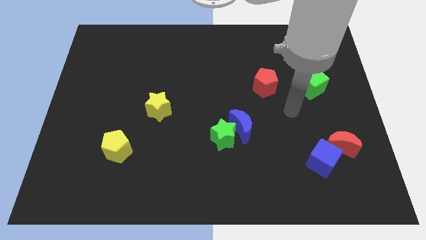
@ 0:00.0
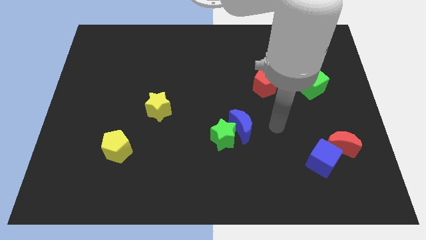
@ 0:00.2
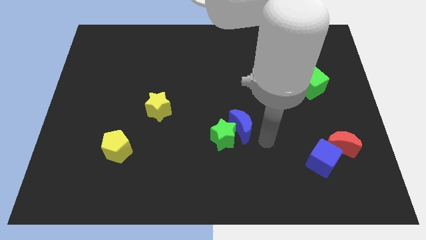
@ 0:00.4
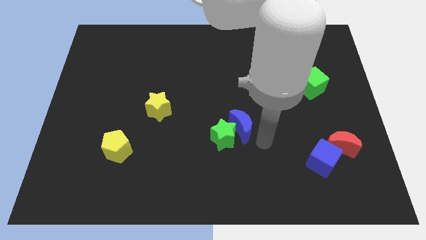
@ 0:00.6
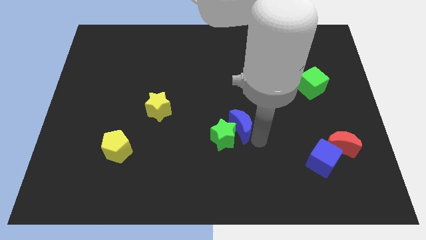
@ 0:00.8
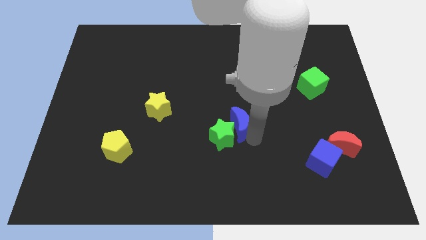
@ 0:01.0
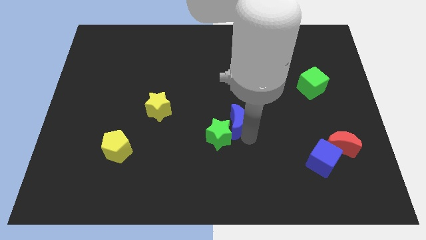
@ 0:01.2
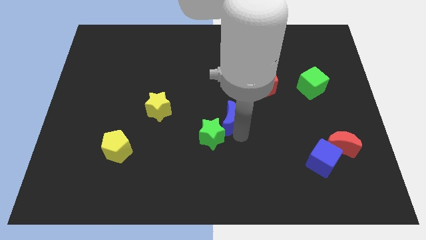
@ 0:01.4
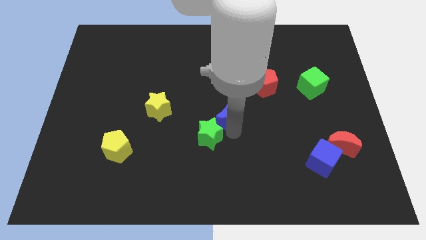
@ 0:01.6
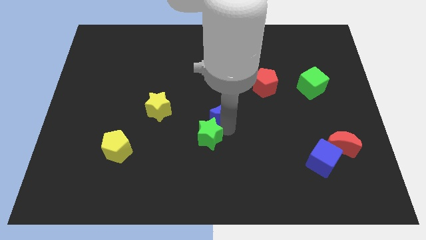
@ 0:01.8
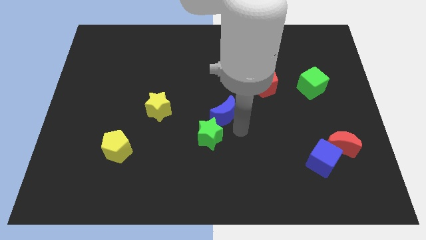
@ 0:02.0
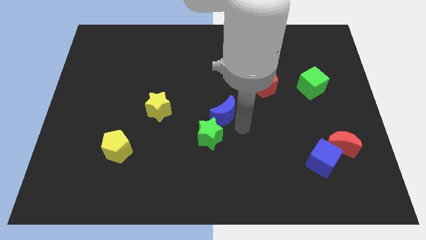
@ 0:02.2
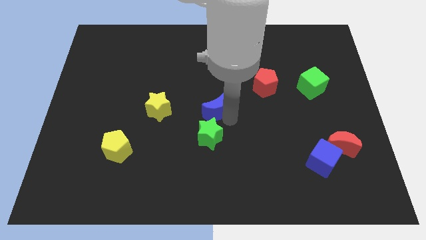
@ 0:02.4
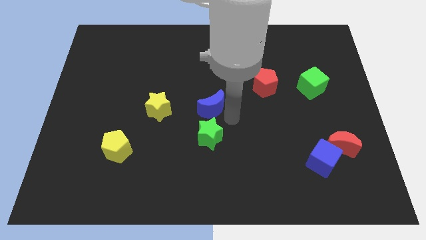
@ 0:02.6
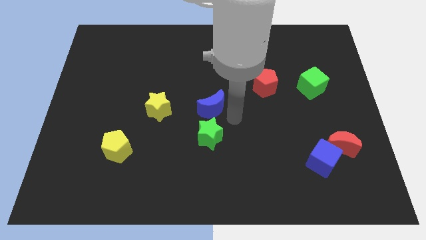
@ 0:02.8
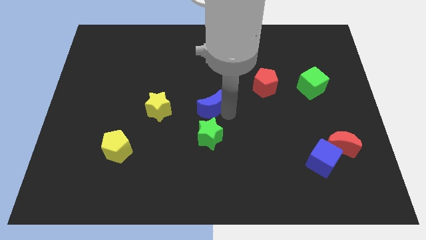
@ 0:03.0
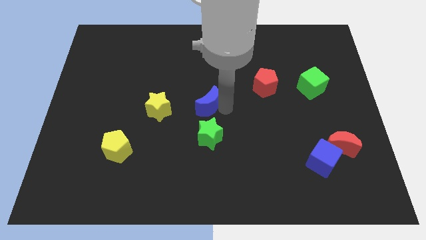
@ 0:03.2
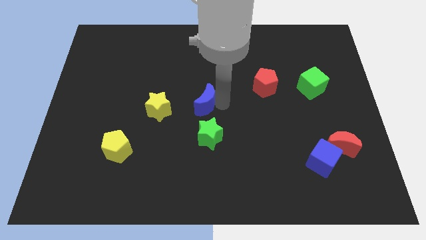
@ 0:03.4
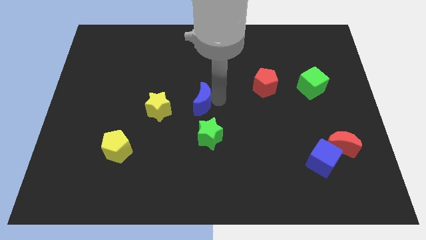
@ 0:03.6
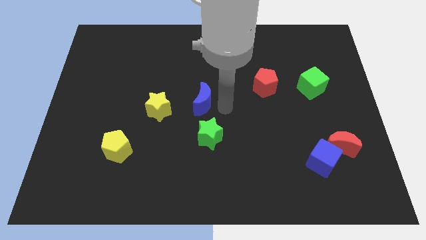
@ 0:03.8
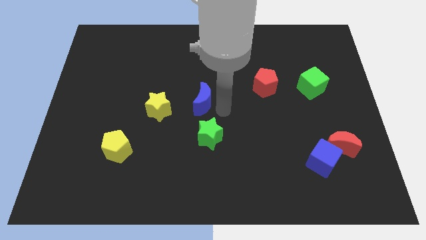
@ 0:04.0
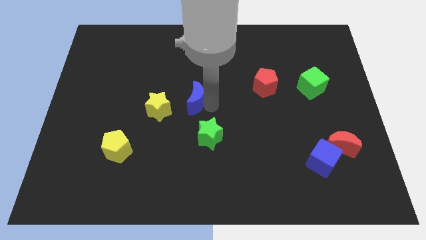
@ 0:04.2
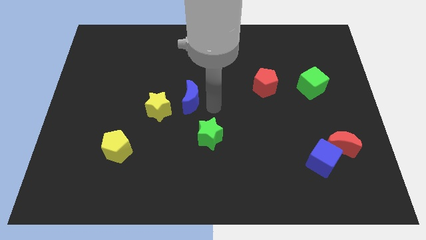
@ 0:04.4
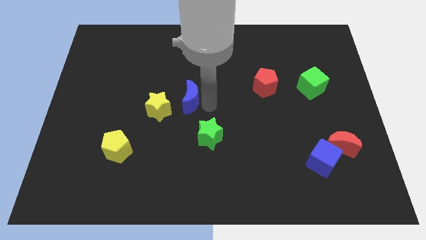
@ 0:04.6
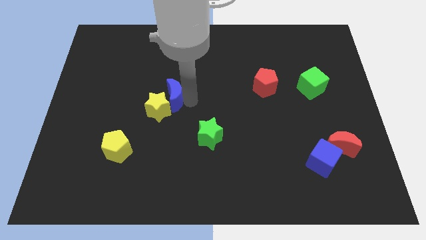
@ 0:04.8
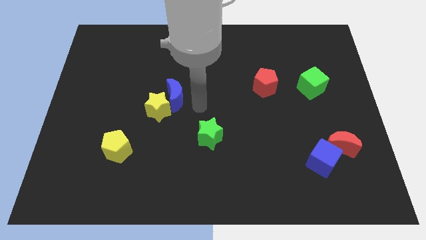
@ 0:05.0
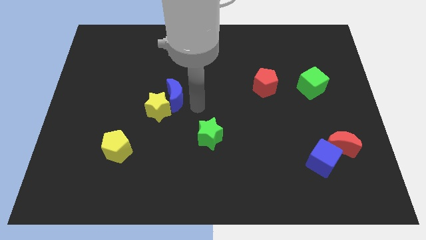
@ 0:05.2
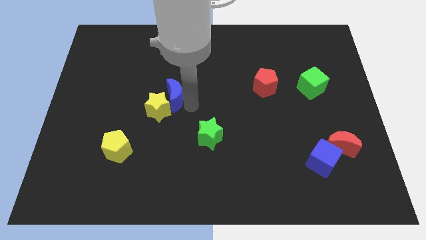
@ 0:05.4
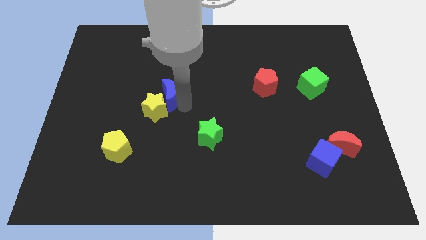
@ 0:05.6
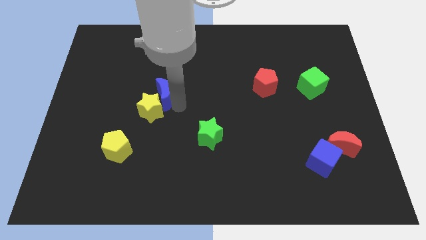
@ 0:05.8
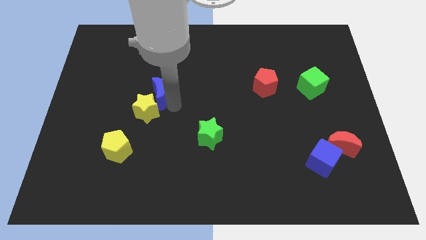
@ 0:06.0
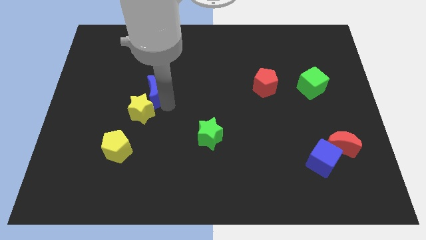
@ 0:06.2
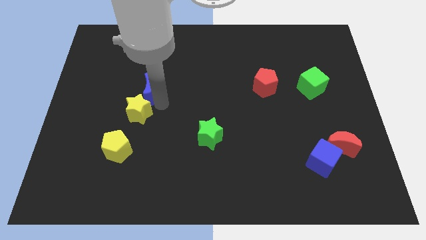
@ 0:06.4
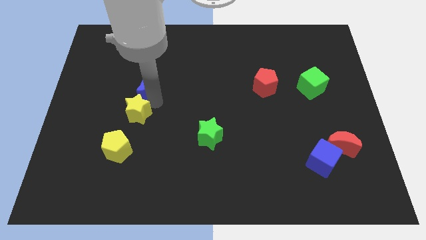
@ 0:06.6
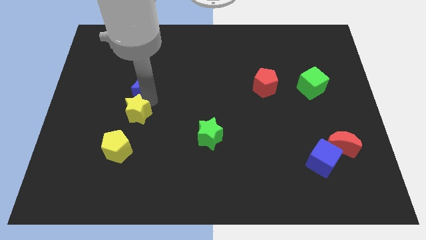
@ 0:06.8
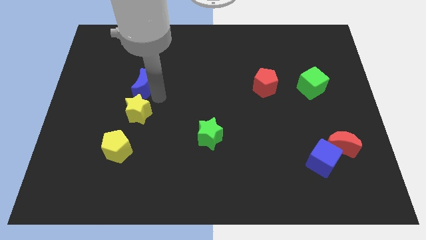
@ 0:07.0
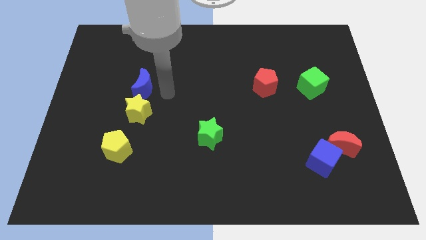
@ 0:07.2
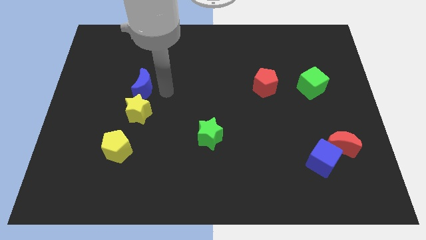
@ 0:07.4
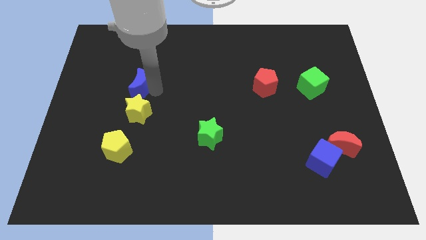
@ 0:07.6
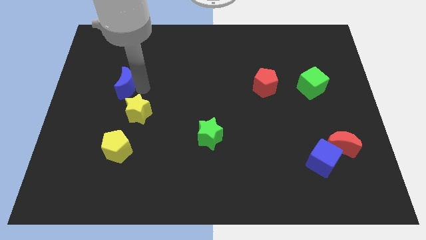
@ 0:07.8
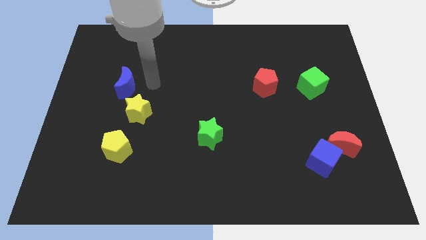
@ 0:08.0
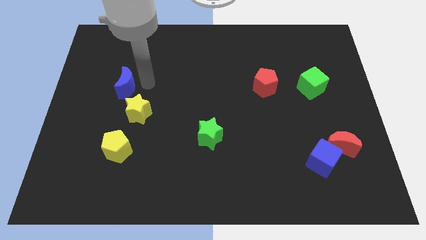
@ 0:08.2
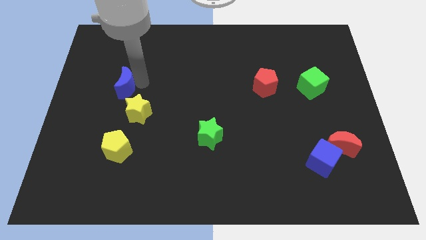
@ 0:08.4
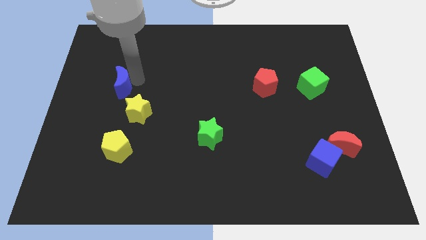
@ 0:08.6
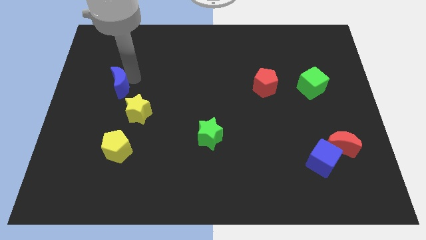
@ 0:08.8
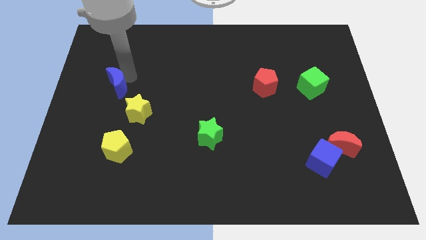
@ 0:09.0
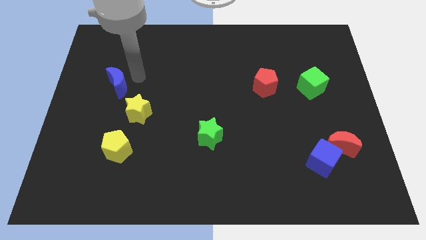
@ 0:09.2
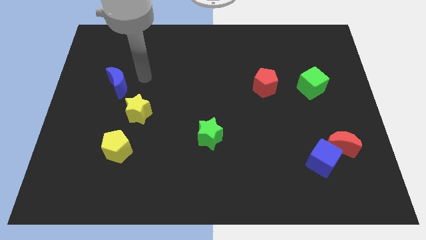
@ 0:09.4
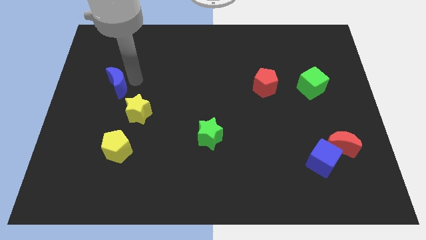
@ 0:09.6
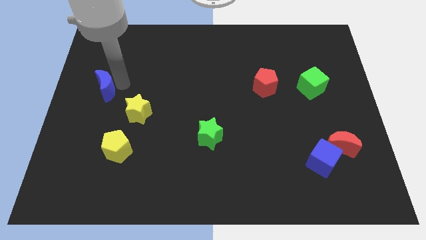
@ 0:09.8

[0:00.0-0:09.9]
slide the blue moon to the left side of the board

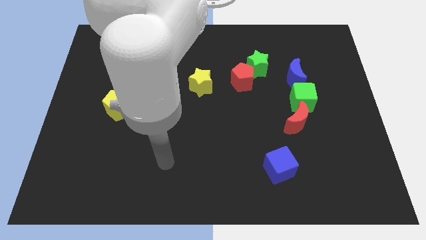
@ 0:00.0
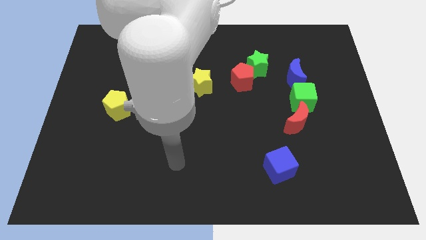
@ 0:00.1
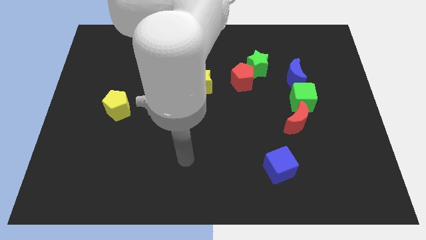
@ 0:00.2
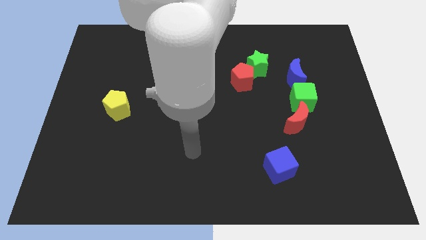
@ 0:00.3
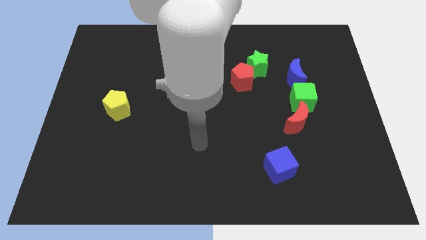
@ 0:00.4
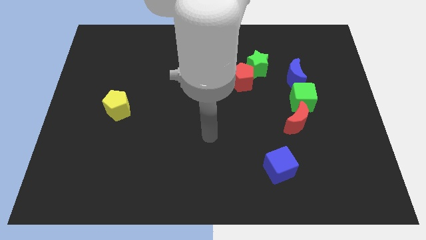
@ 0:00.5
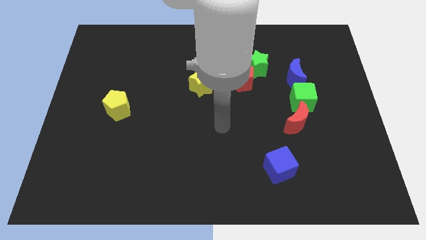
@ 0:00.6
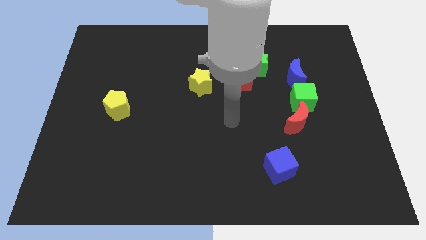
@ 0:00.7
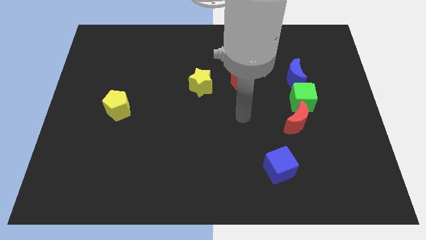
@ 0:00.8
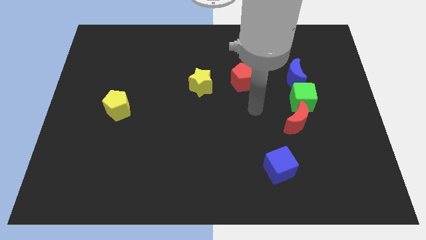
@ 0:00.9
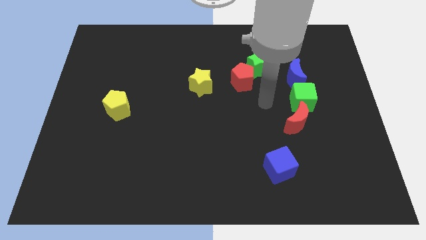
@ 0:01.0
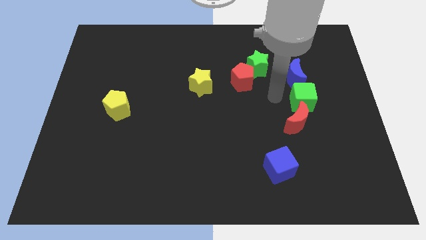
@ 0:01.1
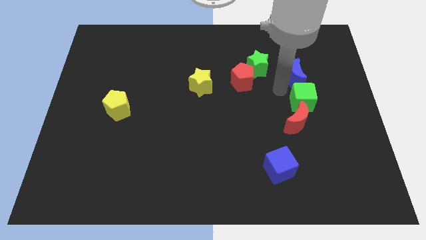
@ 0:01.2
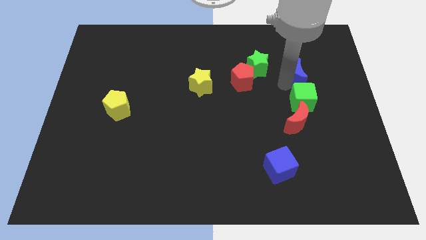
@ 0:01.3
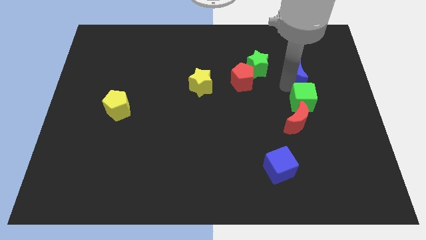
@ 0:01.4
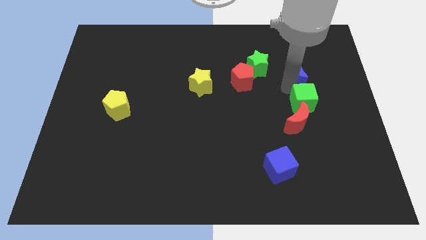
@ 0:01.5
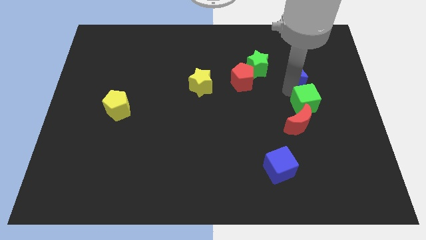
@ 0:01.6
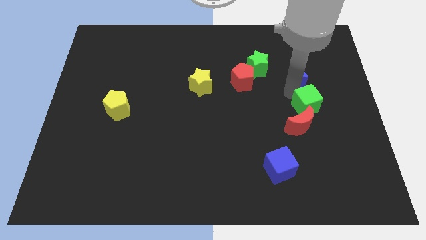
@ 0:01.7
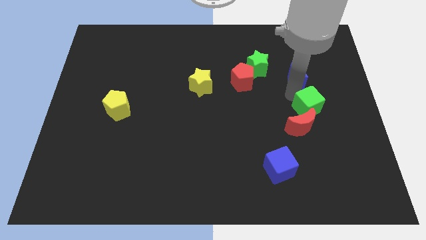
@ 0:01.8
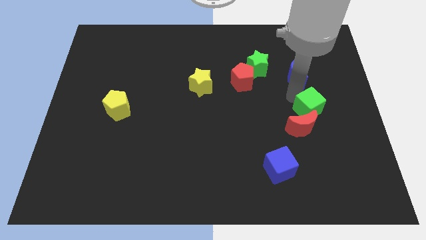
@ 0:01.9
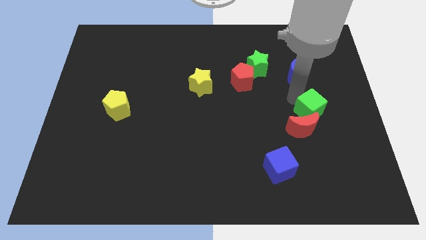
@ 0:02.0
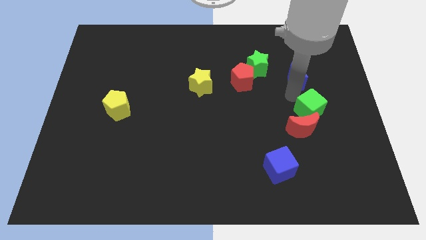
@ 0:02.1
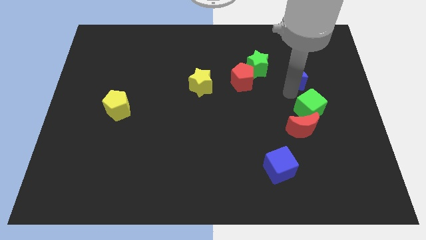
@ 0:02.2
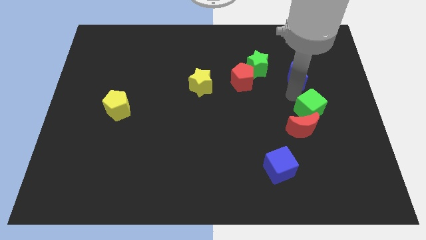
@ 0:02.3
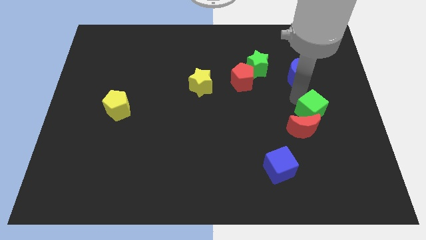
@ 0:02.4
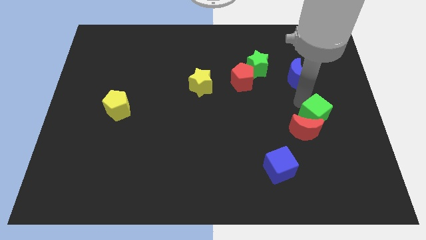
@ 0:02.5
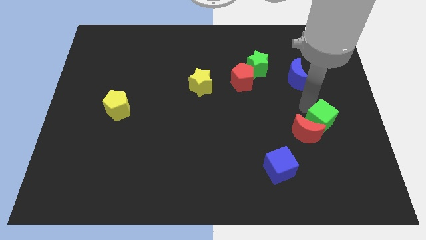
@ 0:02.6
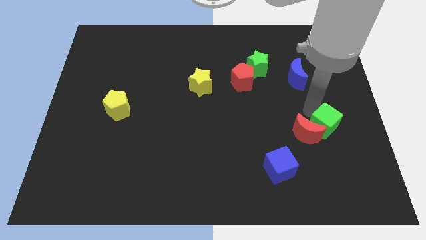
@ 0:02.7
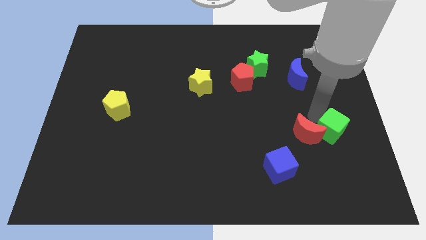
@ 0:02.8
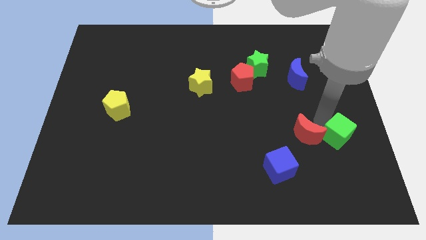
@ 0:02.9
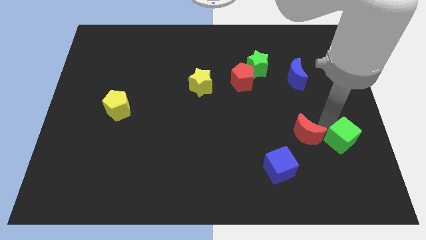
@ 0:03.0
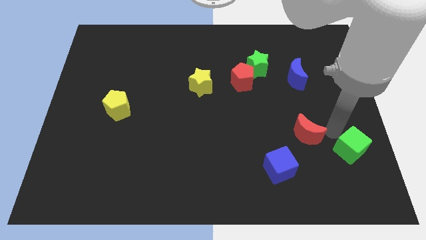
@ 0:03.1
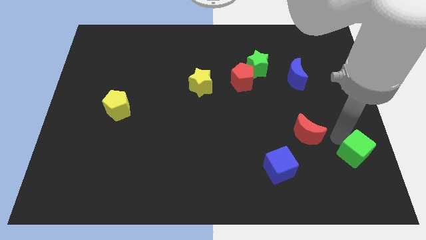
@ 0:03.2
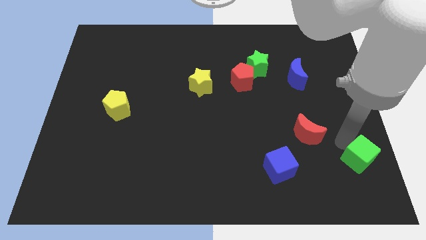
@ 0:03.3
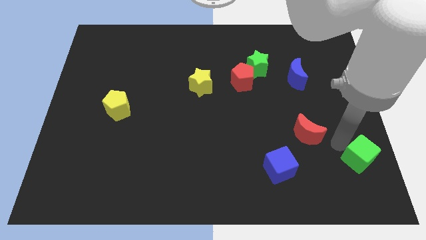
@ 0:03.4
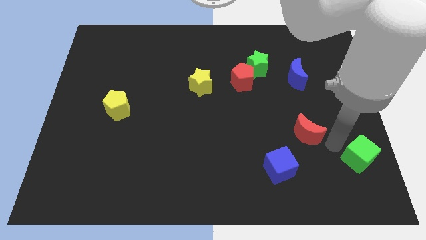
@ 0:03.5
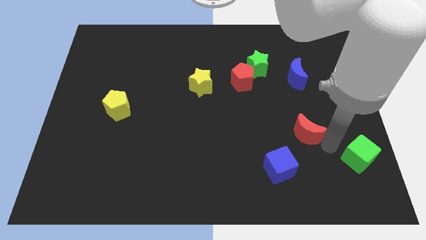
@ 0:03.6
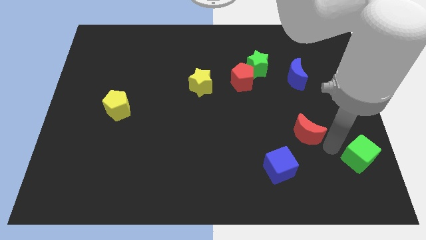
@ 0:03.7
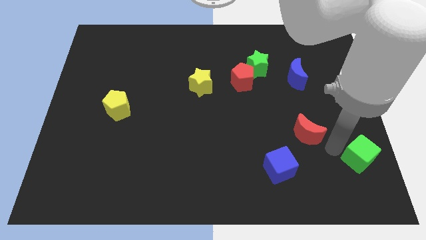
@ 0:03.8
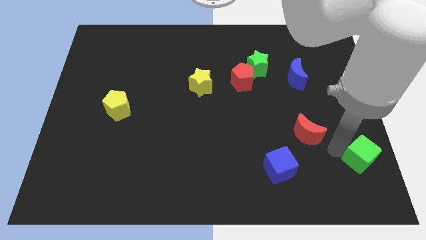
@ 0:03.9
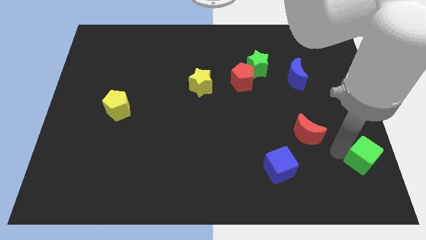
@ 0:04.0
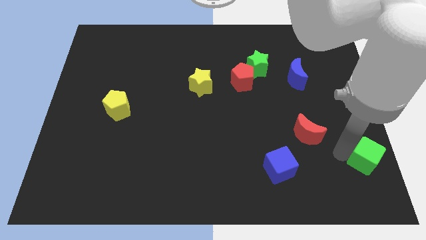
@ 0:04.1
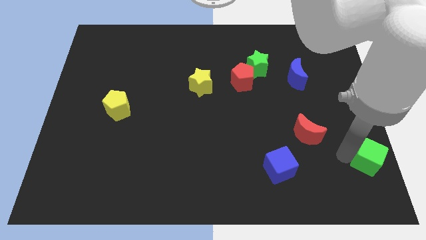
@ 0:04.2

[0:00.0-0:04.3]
move the green cube to the lower right corner
